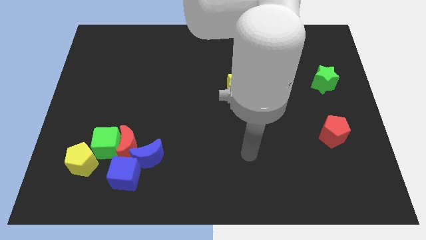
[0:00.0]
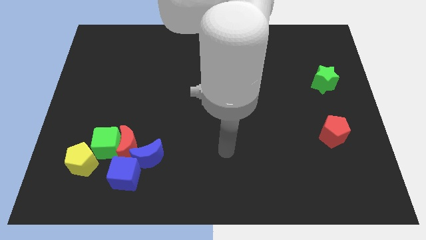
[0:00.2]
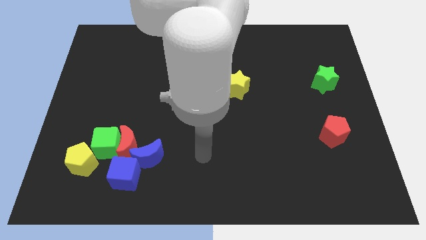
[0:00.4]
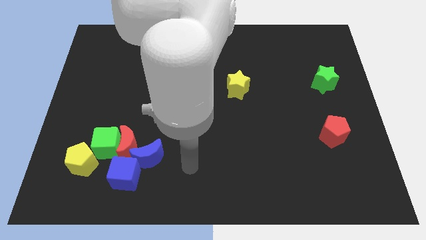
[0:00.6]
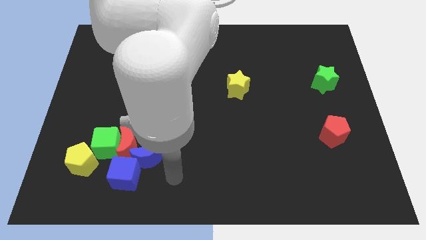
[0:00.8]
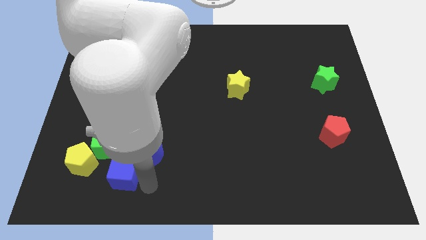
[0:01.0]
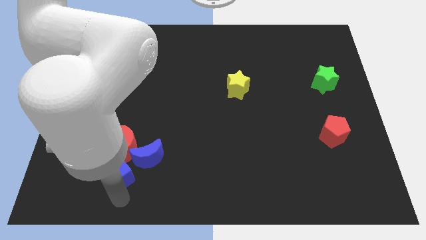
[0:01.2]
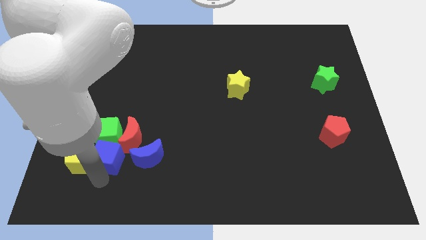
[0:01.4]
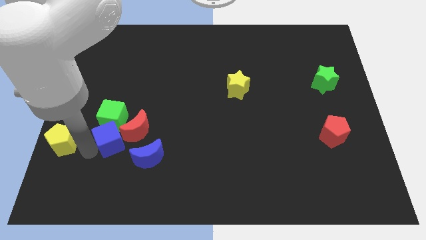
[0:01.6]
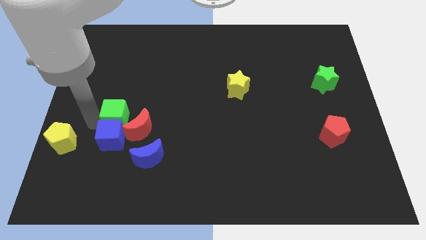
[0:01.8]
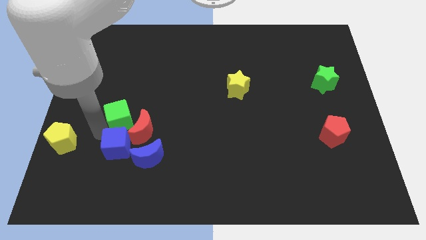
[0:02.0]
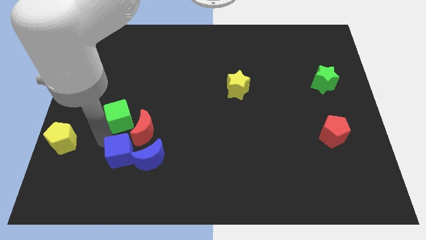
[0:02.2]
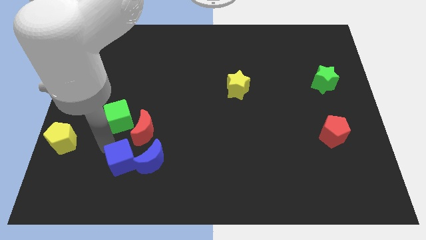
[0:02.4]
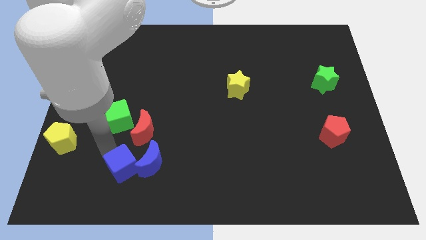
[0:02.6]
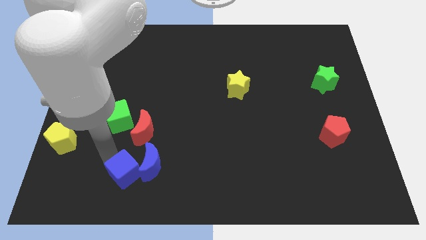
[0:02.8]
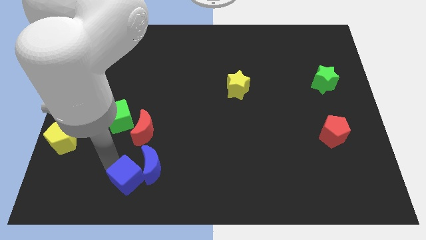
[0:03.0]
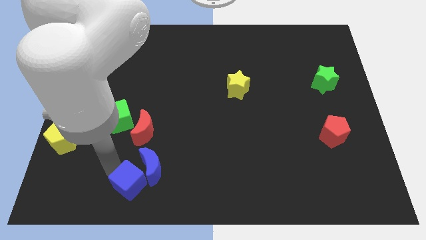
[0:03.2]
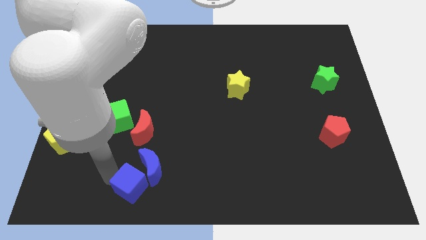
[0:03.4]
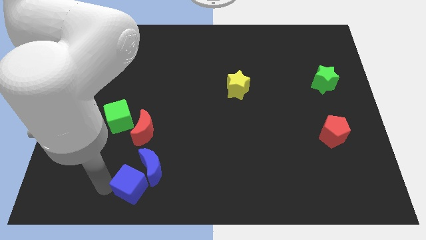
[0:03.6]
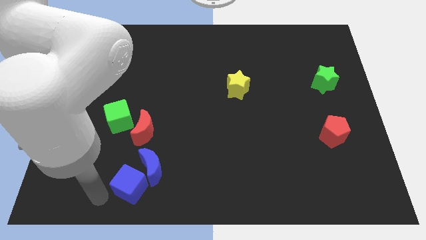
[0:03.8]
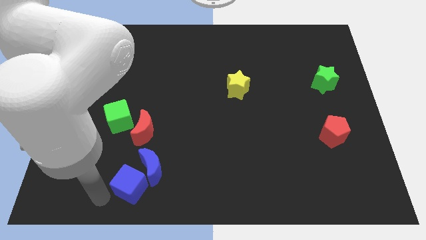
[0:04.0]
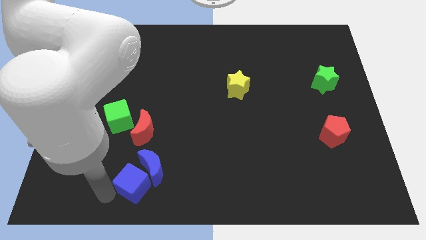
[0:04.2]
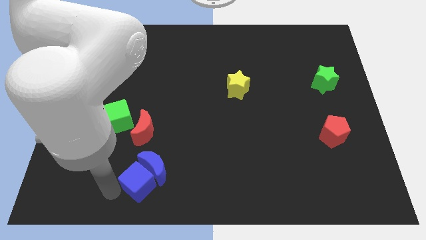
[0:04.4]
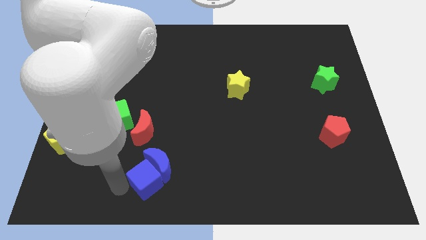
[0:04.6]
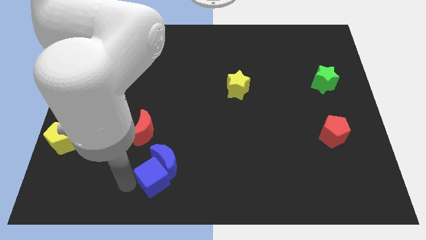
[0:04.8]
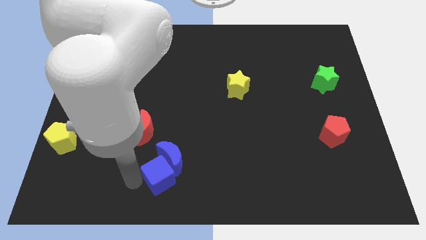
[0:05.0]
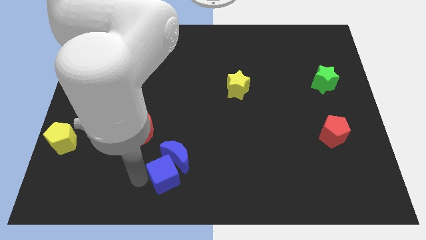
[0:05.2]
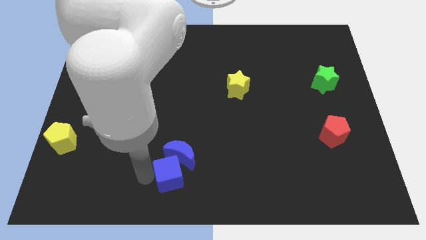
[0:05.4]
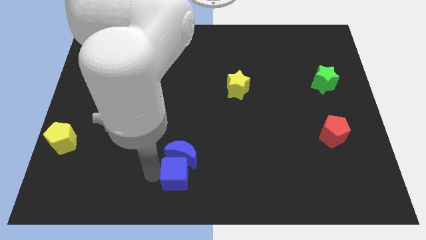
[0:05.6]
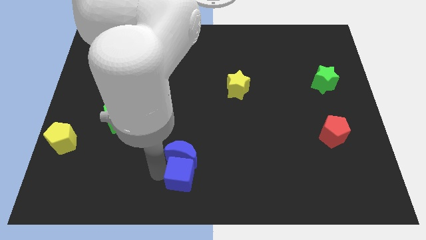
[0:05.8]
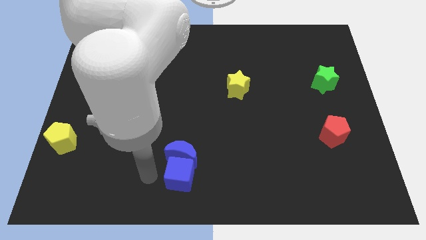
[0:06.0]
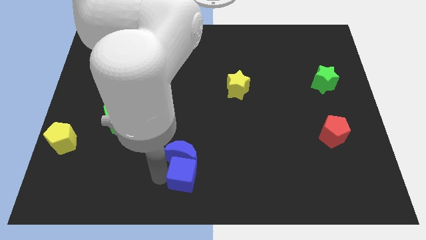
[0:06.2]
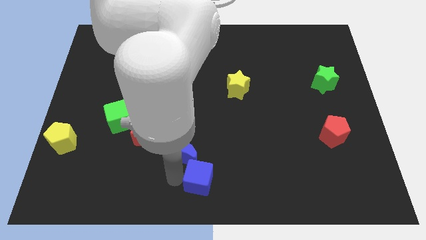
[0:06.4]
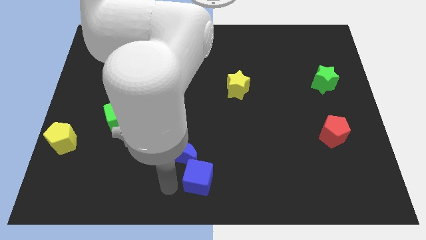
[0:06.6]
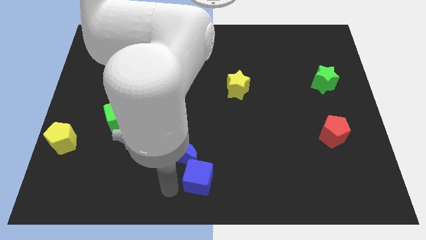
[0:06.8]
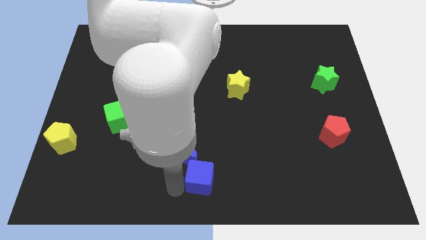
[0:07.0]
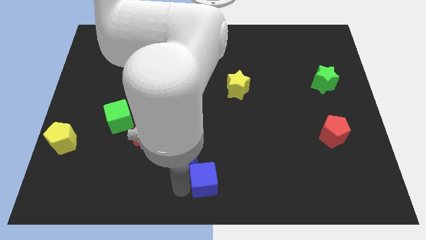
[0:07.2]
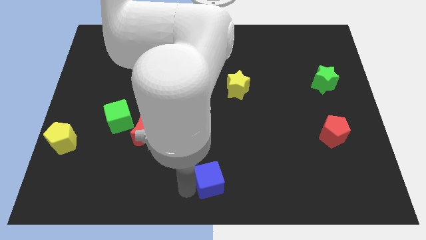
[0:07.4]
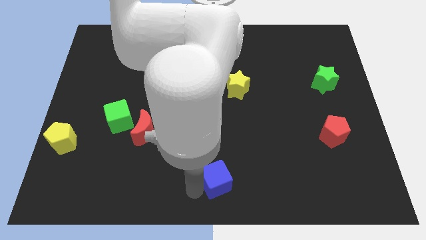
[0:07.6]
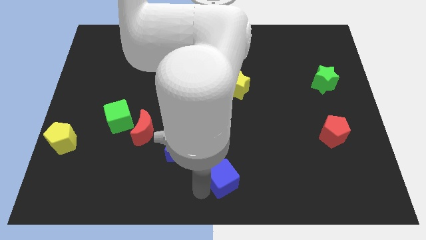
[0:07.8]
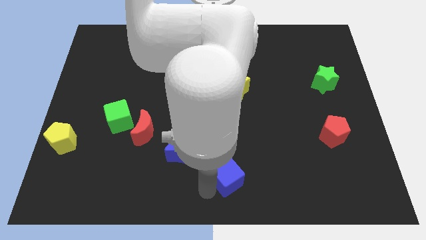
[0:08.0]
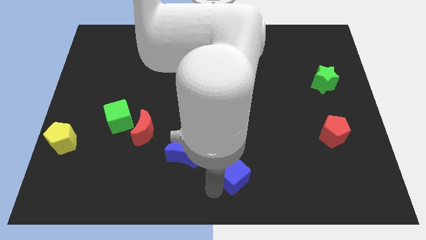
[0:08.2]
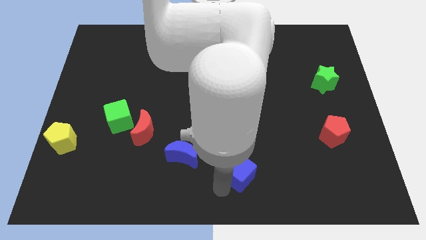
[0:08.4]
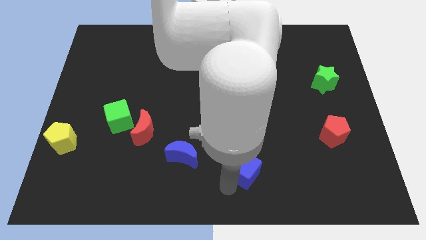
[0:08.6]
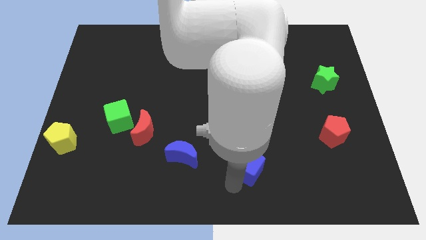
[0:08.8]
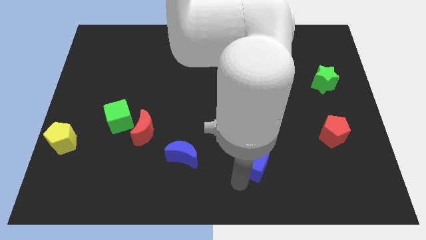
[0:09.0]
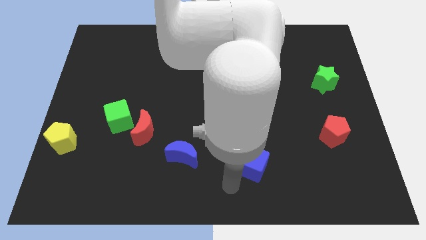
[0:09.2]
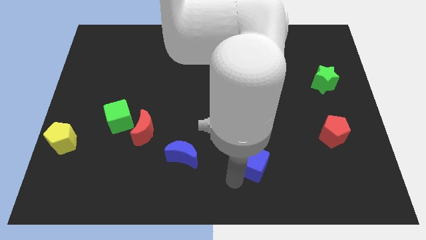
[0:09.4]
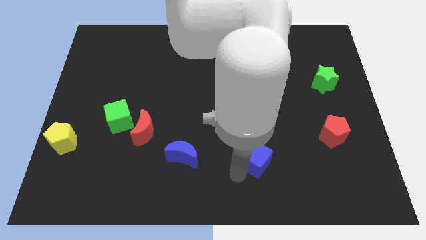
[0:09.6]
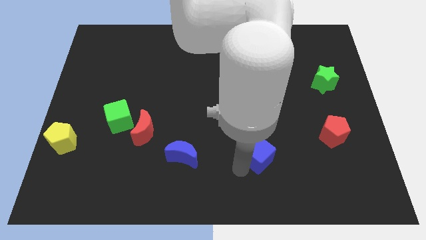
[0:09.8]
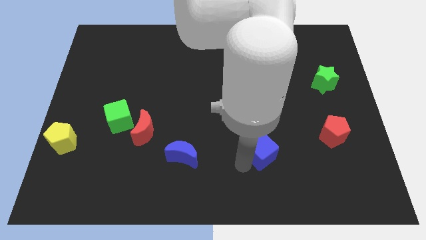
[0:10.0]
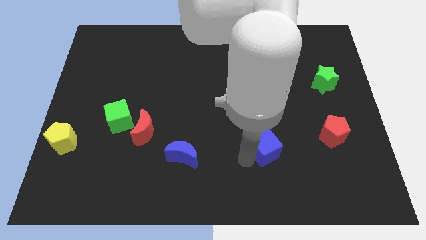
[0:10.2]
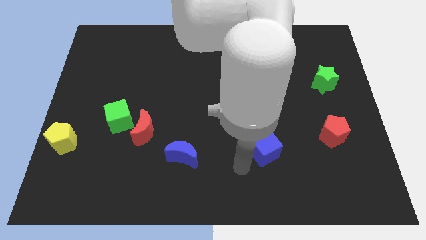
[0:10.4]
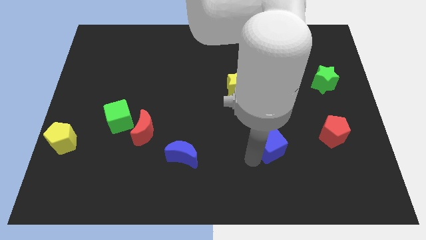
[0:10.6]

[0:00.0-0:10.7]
slide the blue cube to the left side of the red pentagon
